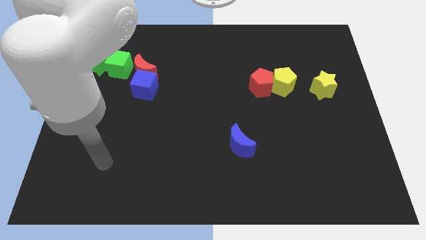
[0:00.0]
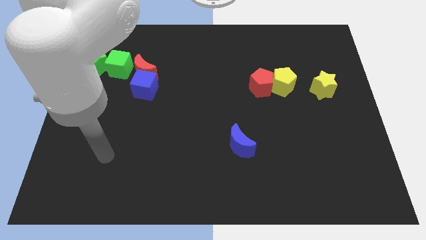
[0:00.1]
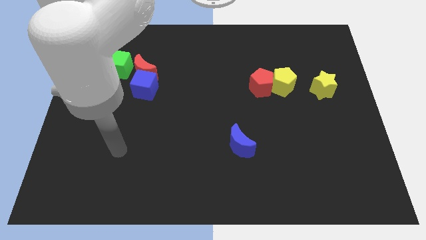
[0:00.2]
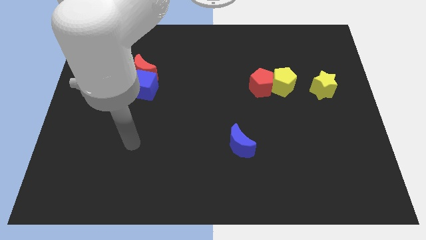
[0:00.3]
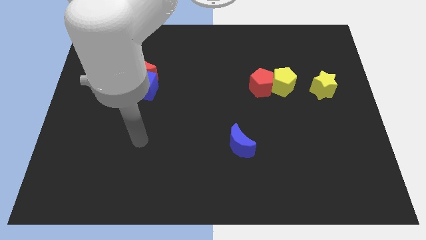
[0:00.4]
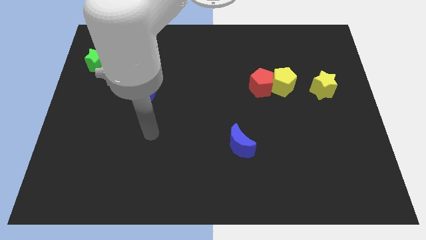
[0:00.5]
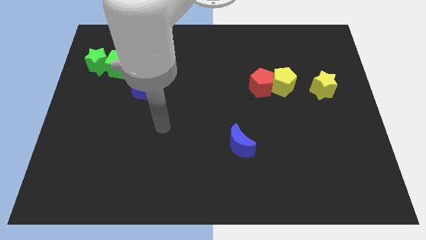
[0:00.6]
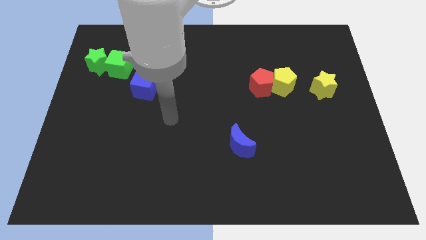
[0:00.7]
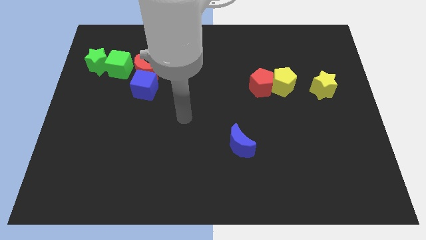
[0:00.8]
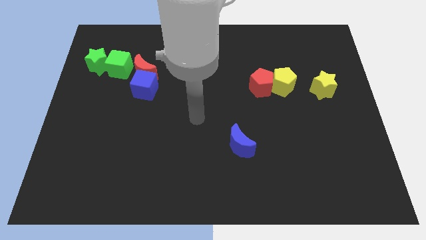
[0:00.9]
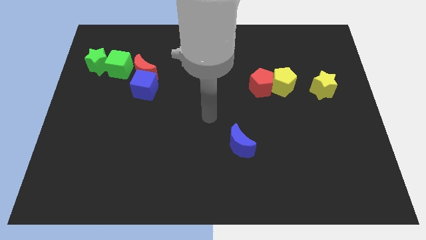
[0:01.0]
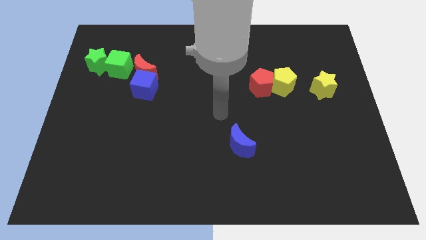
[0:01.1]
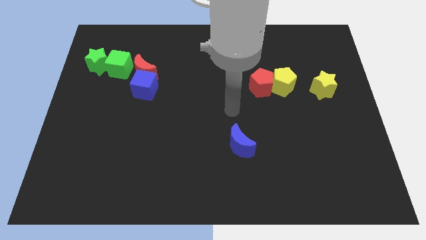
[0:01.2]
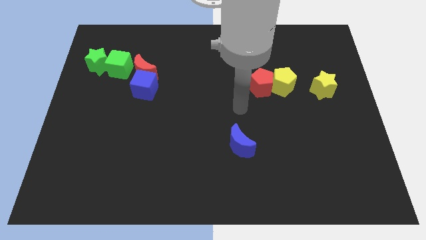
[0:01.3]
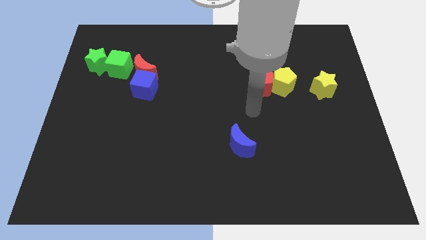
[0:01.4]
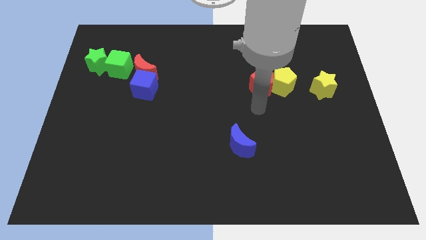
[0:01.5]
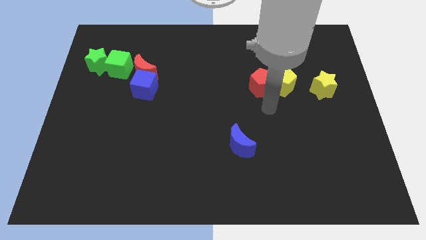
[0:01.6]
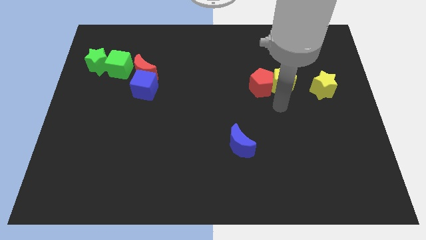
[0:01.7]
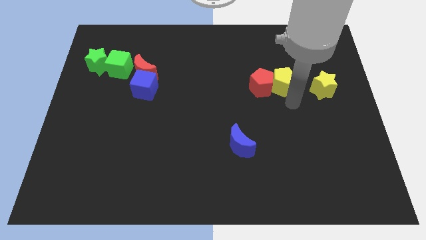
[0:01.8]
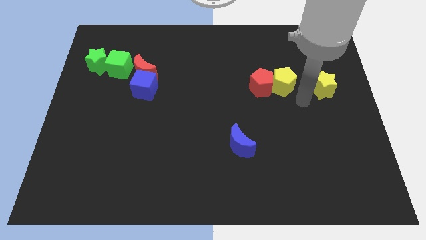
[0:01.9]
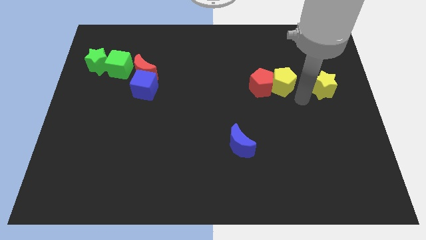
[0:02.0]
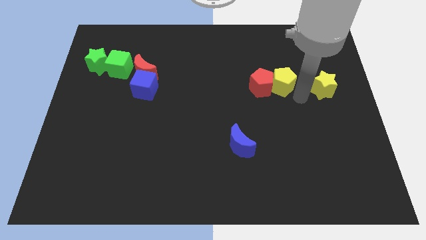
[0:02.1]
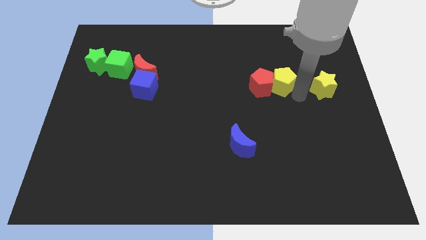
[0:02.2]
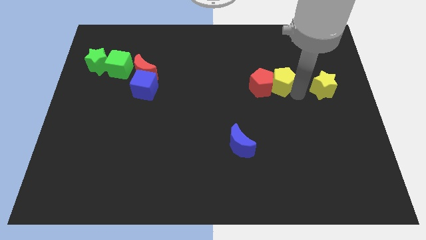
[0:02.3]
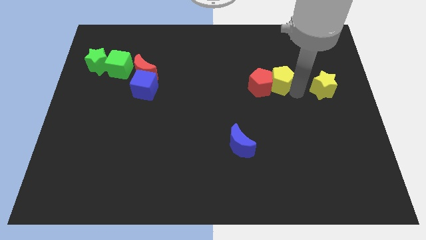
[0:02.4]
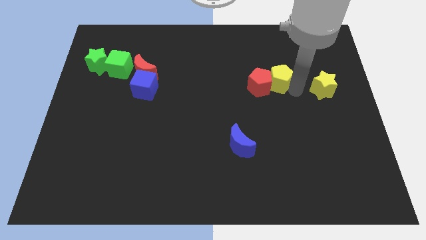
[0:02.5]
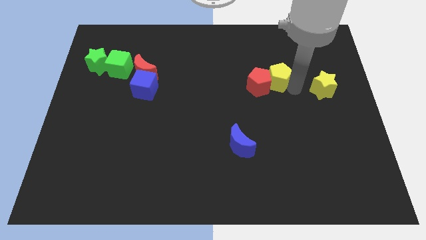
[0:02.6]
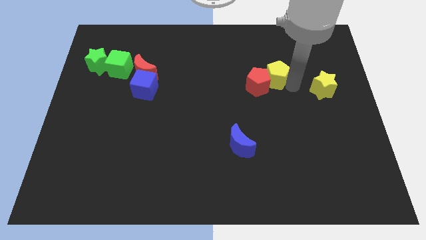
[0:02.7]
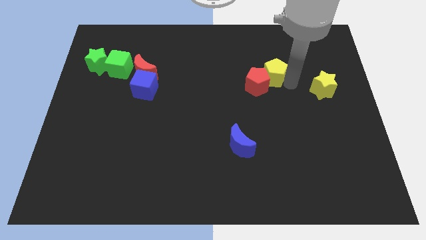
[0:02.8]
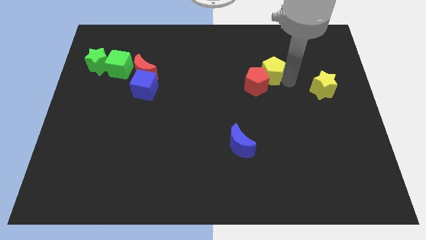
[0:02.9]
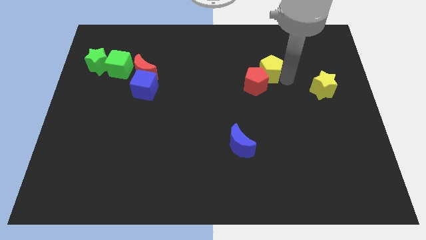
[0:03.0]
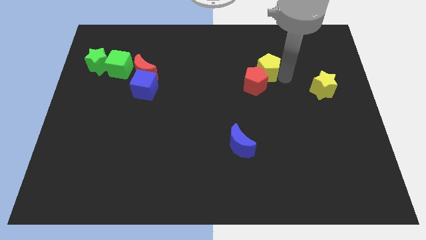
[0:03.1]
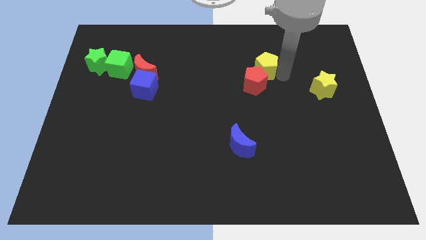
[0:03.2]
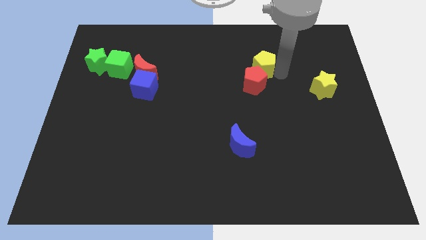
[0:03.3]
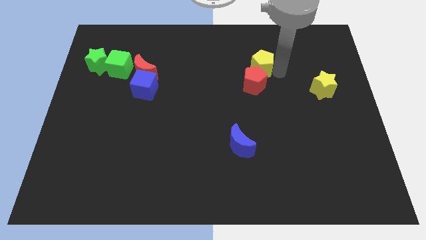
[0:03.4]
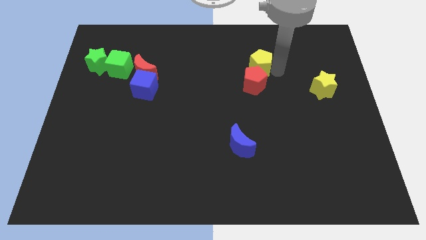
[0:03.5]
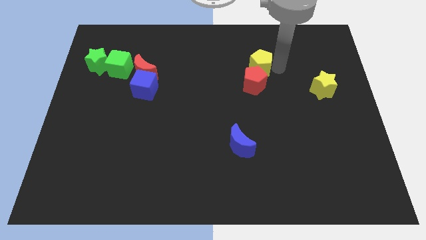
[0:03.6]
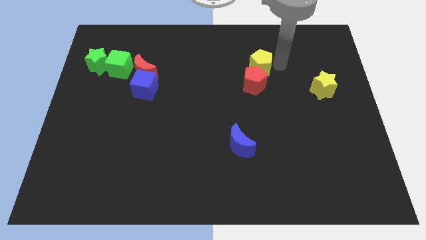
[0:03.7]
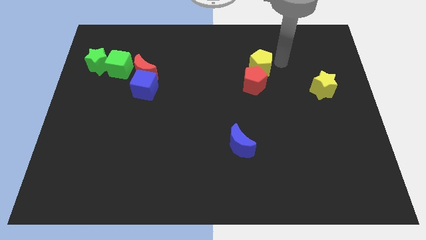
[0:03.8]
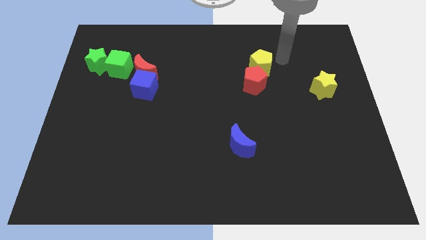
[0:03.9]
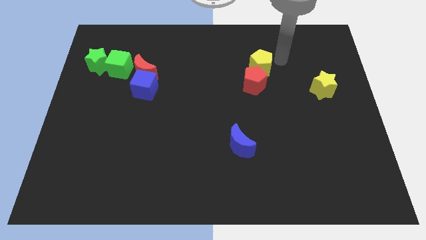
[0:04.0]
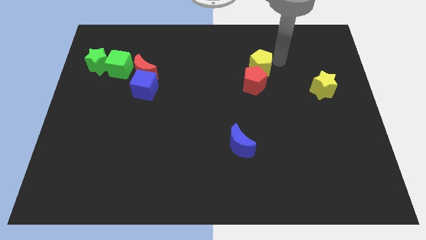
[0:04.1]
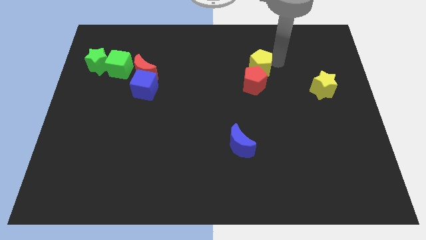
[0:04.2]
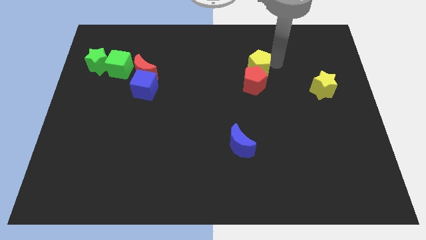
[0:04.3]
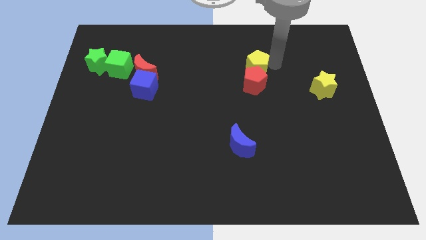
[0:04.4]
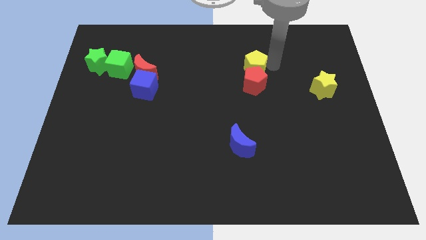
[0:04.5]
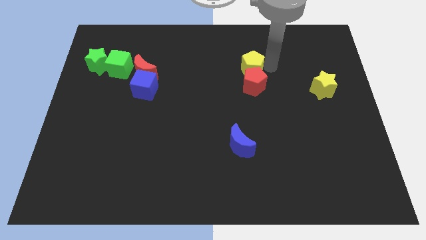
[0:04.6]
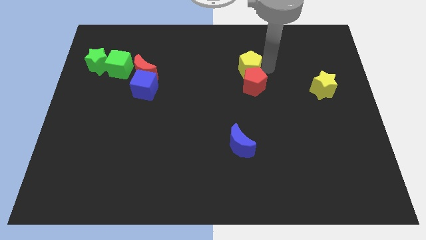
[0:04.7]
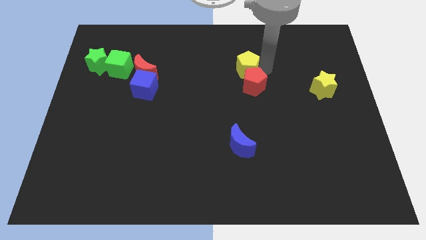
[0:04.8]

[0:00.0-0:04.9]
push the yellow pentagon somewhat left

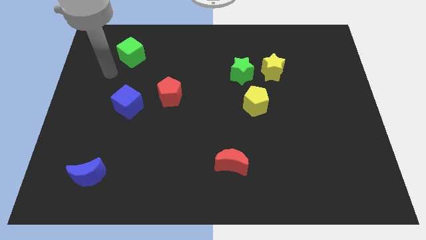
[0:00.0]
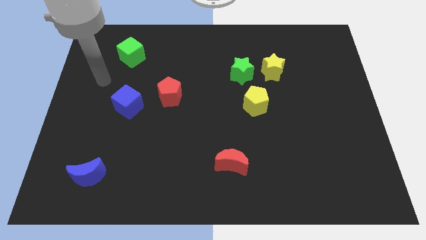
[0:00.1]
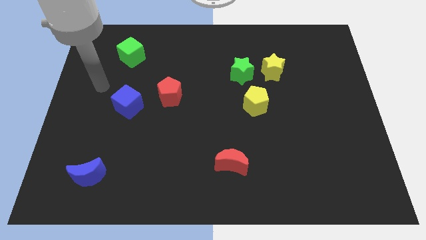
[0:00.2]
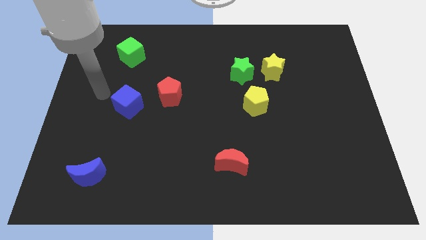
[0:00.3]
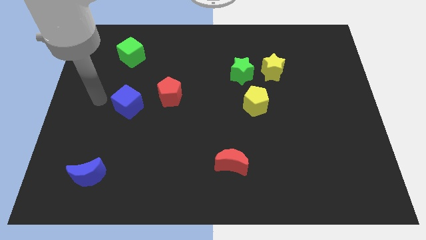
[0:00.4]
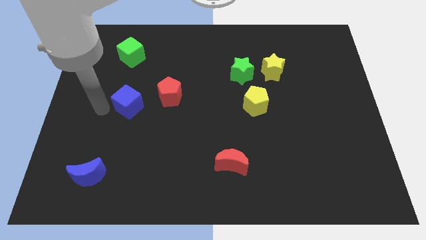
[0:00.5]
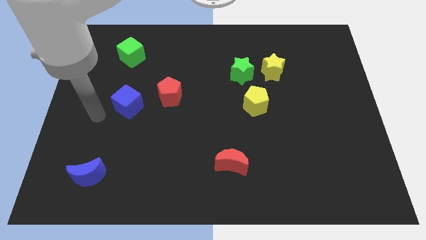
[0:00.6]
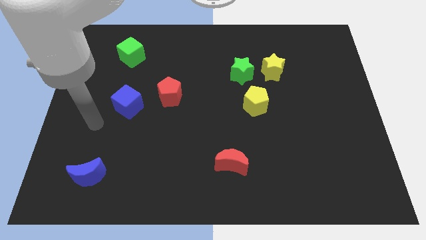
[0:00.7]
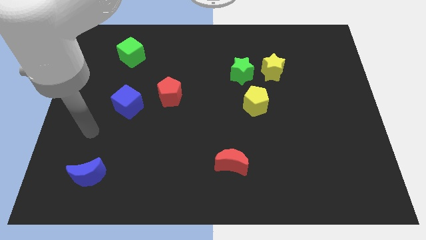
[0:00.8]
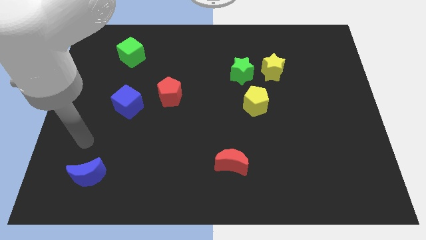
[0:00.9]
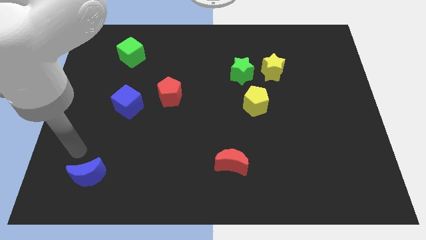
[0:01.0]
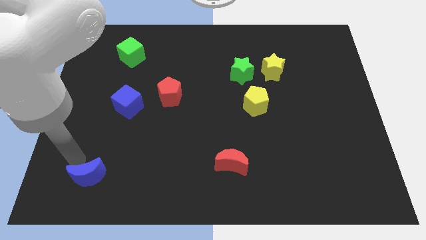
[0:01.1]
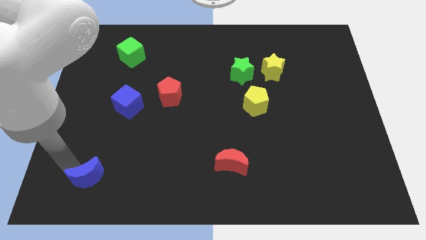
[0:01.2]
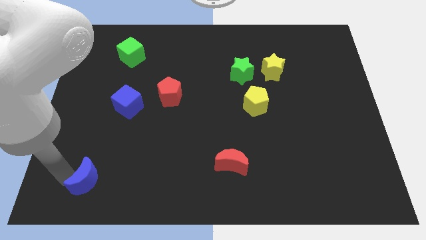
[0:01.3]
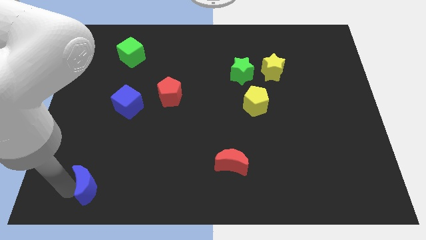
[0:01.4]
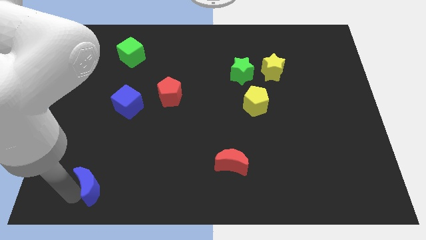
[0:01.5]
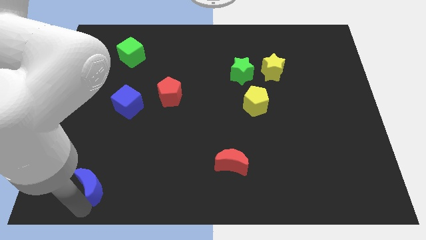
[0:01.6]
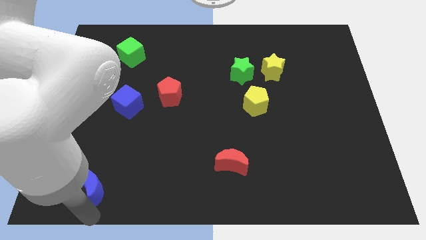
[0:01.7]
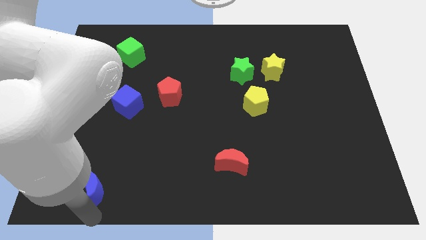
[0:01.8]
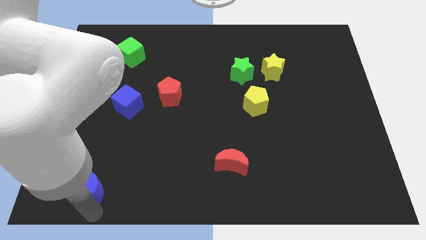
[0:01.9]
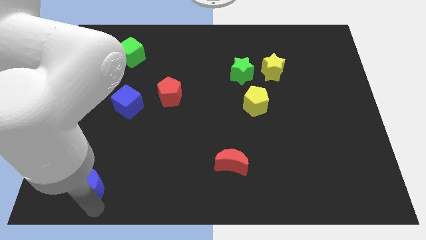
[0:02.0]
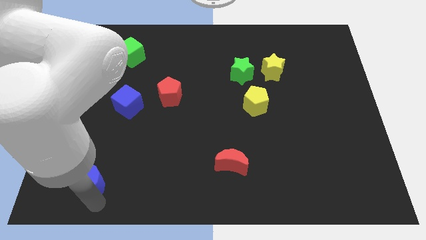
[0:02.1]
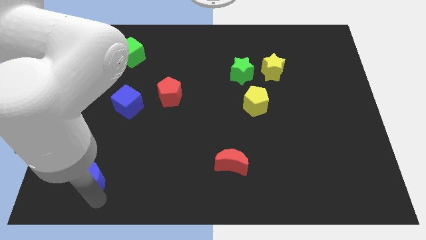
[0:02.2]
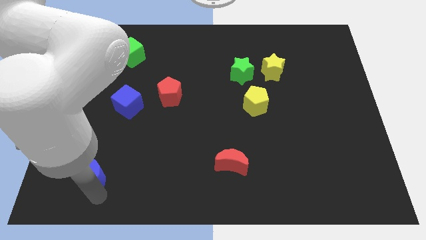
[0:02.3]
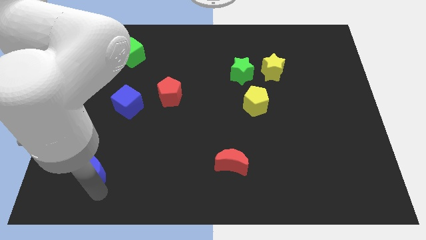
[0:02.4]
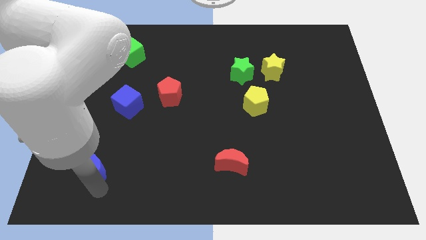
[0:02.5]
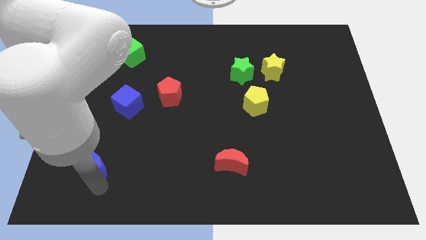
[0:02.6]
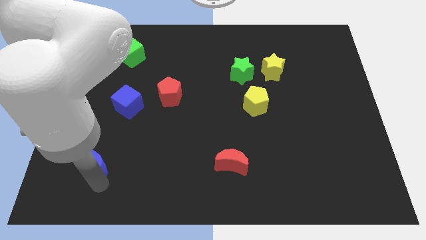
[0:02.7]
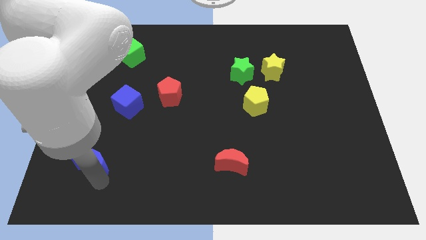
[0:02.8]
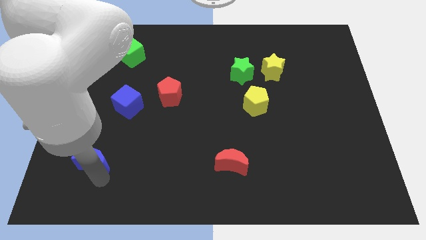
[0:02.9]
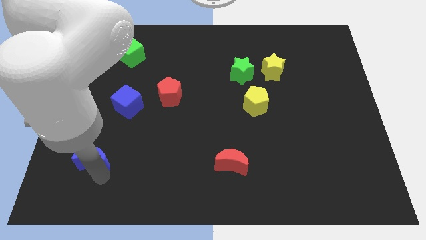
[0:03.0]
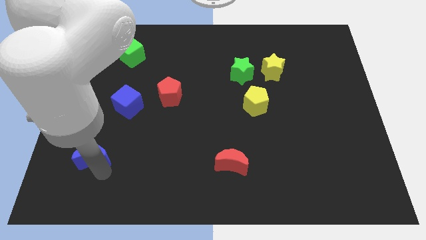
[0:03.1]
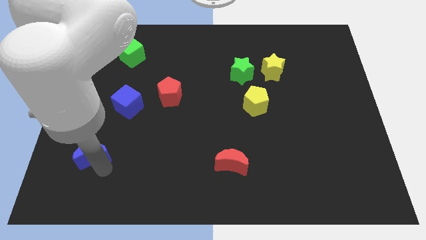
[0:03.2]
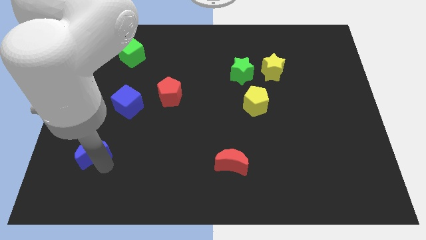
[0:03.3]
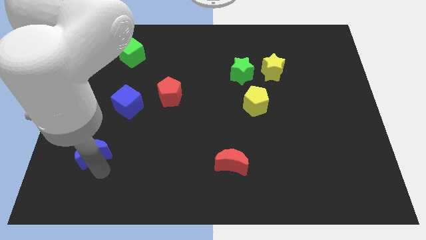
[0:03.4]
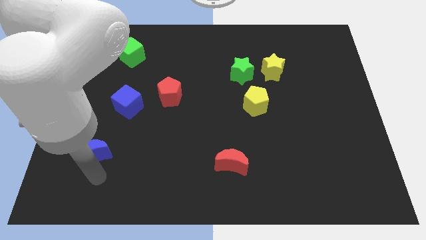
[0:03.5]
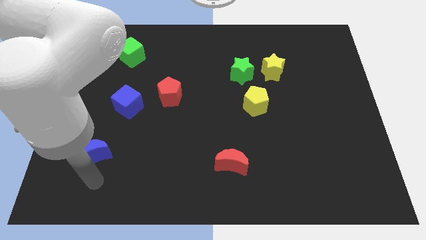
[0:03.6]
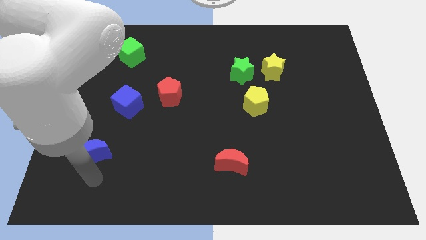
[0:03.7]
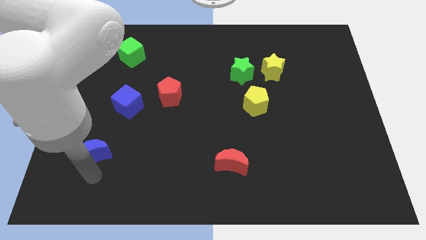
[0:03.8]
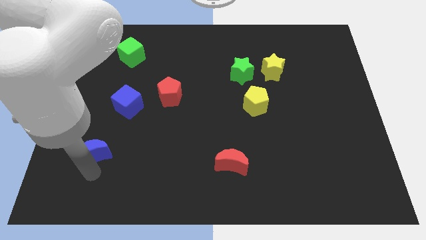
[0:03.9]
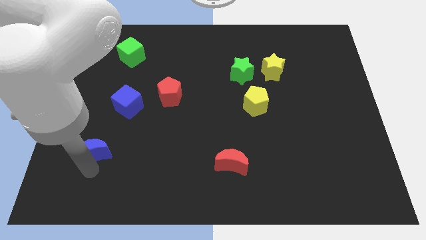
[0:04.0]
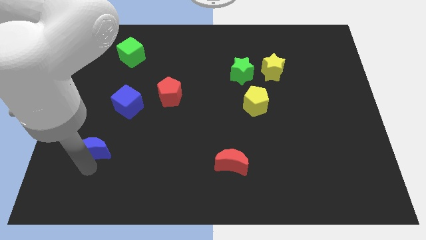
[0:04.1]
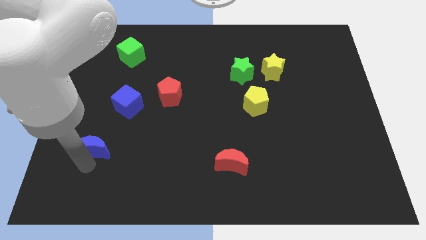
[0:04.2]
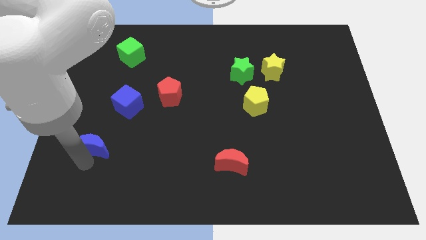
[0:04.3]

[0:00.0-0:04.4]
slide the blue moon up somewhat
